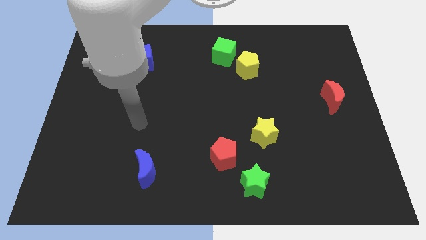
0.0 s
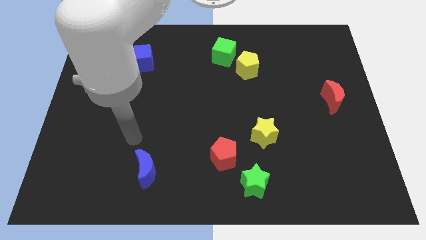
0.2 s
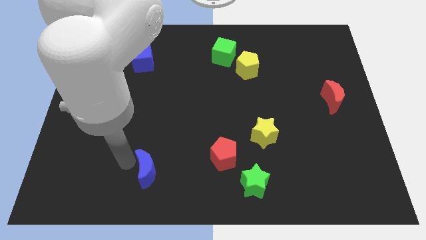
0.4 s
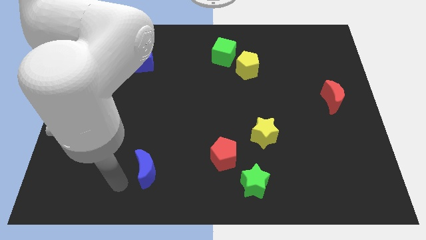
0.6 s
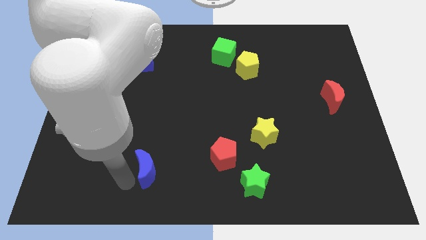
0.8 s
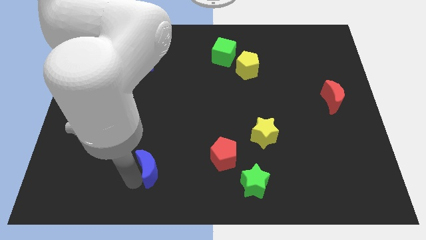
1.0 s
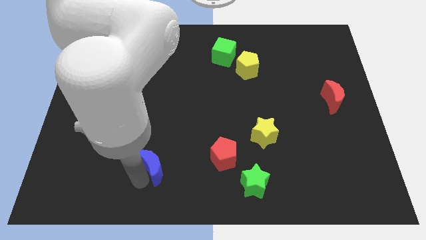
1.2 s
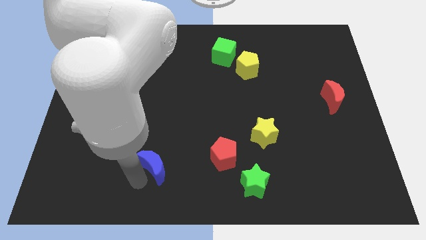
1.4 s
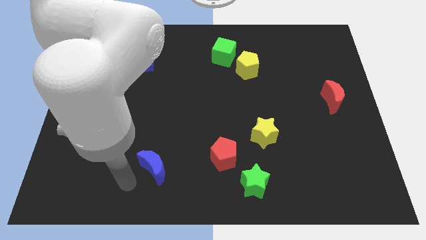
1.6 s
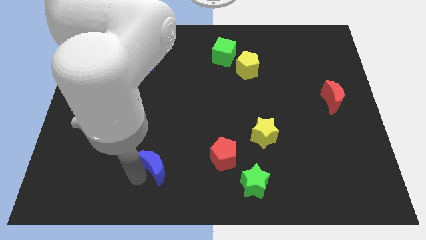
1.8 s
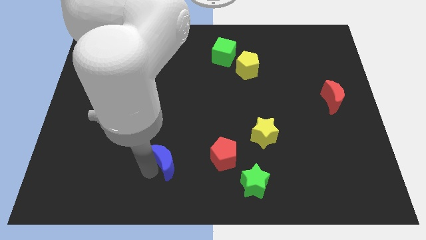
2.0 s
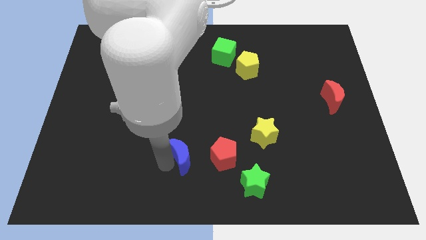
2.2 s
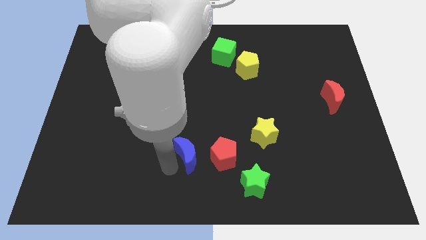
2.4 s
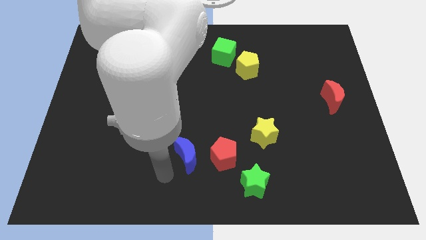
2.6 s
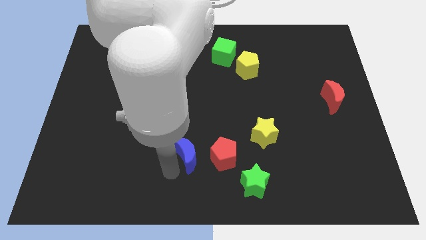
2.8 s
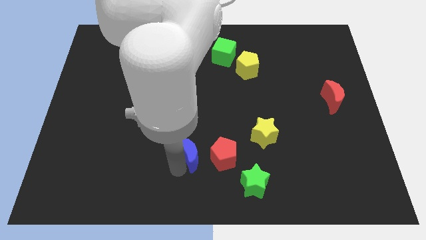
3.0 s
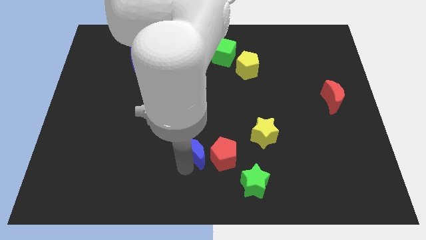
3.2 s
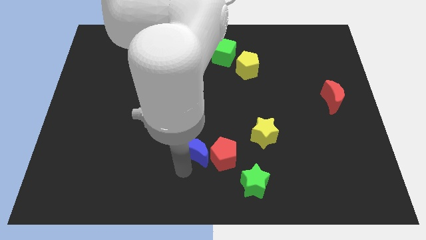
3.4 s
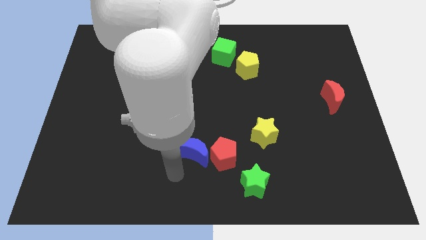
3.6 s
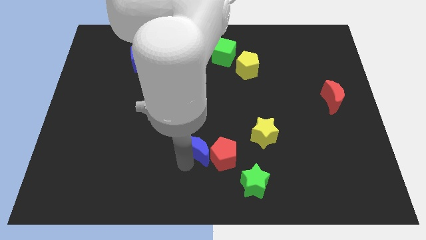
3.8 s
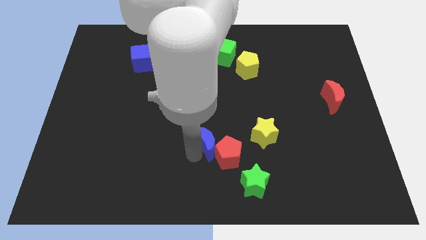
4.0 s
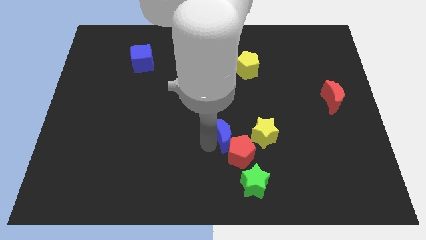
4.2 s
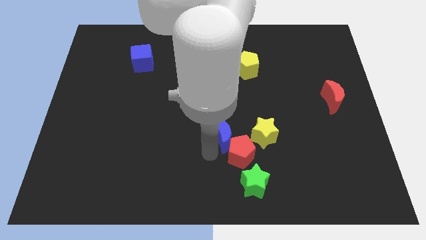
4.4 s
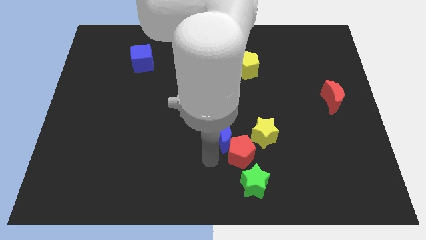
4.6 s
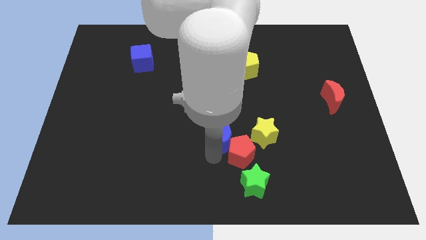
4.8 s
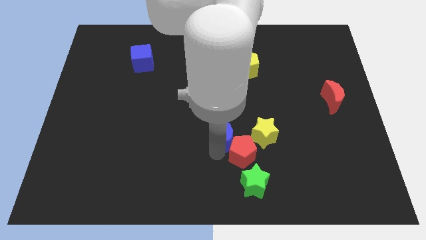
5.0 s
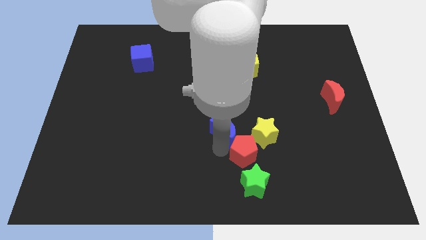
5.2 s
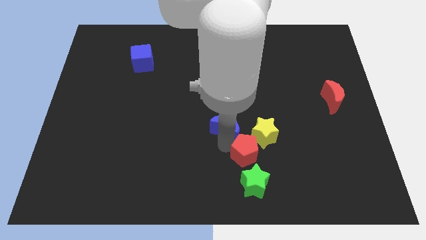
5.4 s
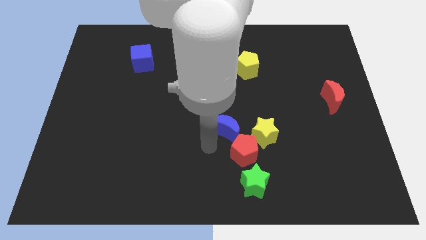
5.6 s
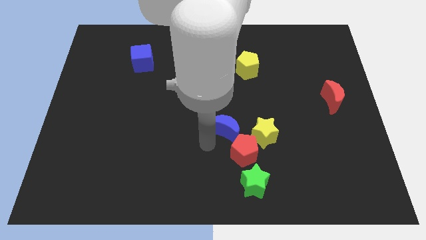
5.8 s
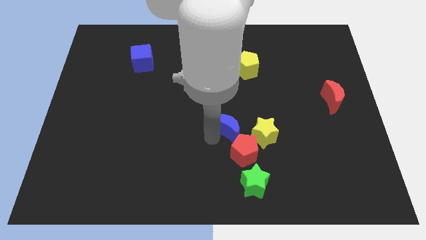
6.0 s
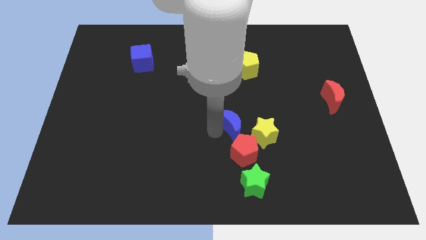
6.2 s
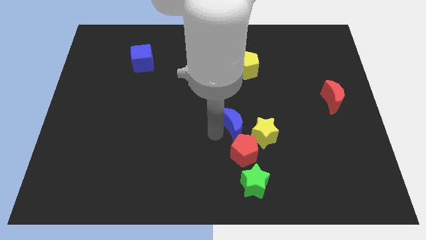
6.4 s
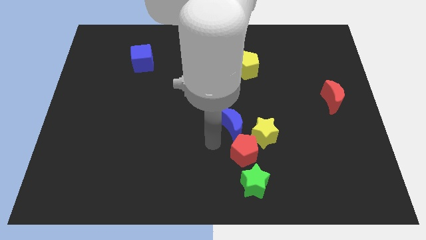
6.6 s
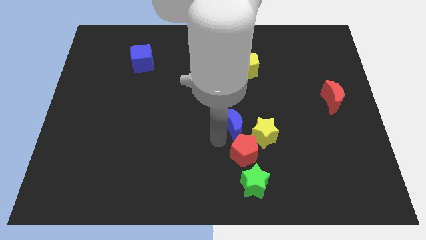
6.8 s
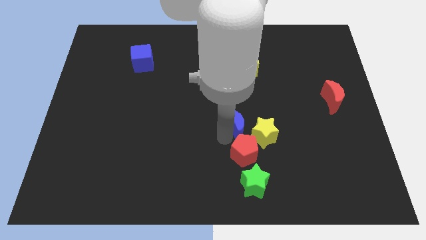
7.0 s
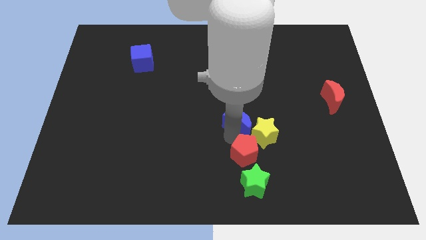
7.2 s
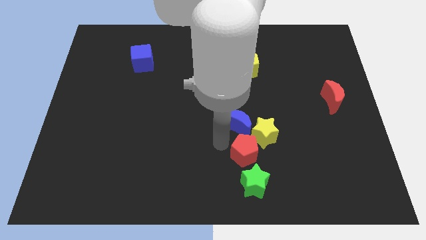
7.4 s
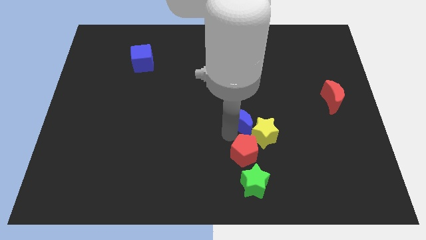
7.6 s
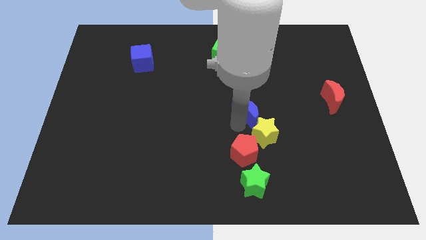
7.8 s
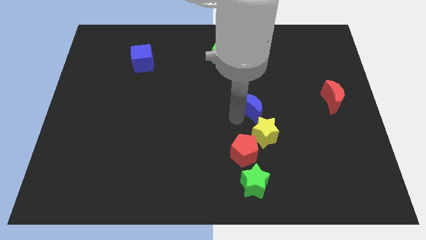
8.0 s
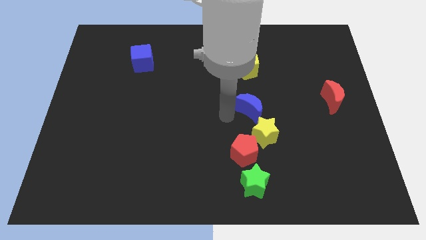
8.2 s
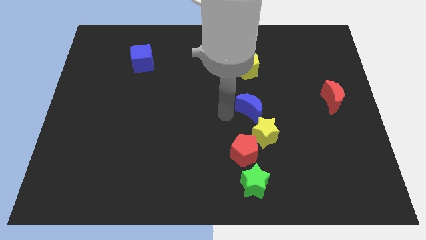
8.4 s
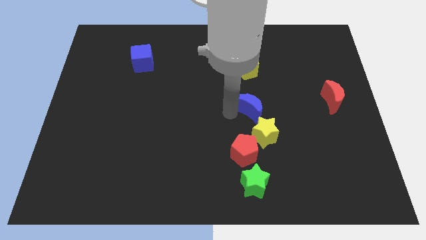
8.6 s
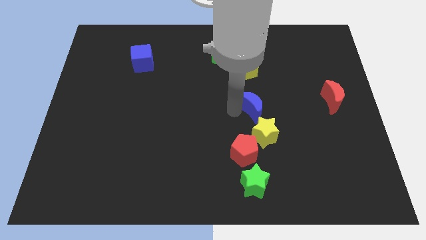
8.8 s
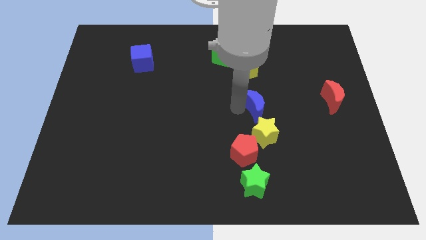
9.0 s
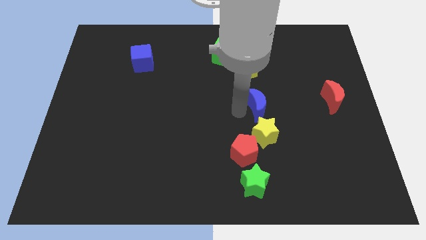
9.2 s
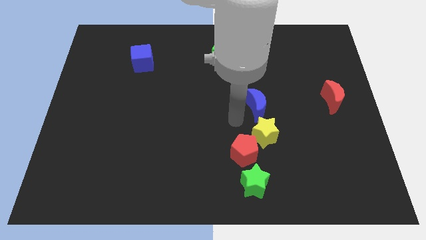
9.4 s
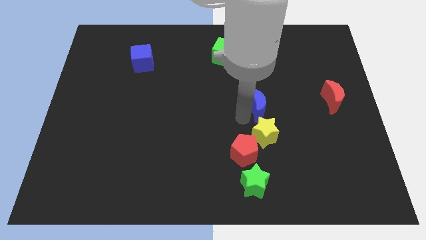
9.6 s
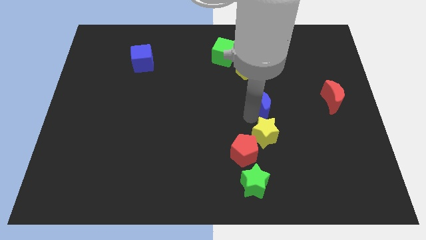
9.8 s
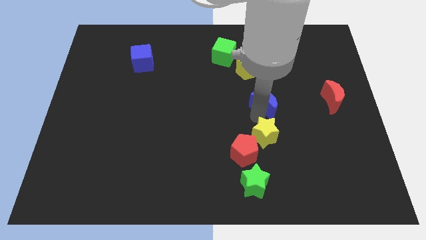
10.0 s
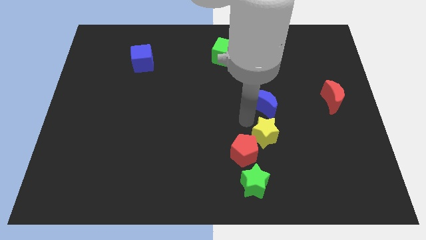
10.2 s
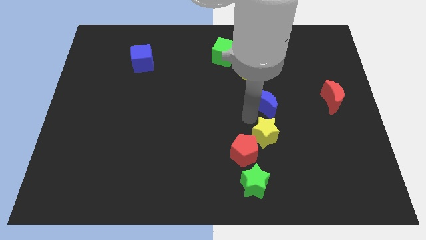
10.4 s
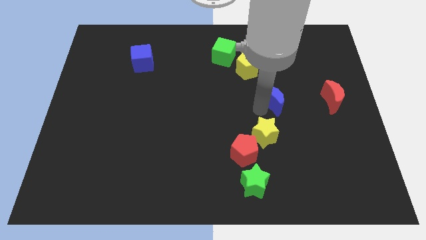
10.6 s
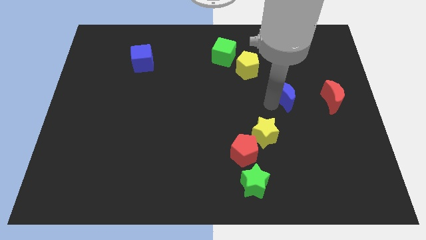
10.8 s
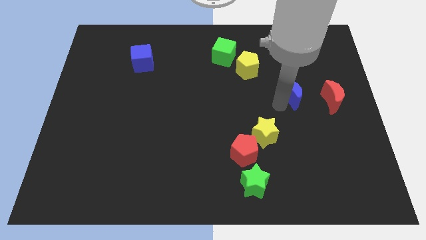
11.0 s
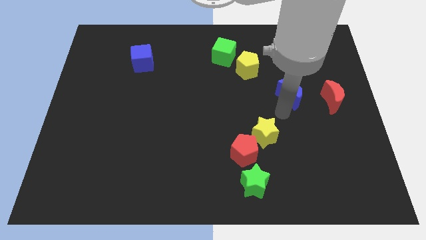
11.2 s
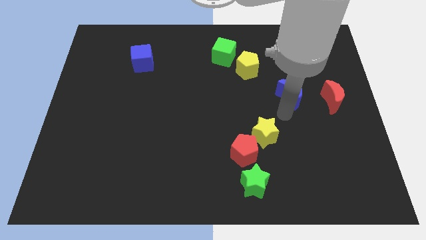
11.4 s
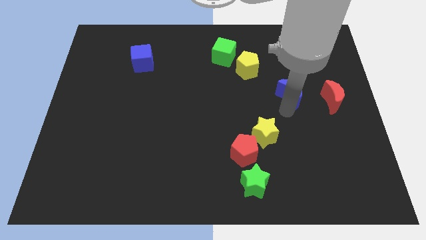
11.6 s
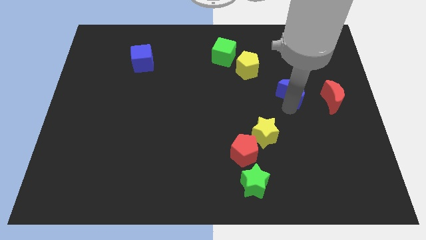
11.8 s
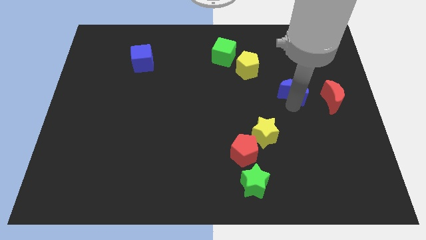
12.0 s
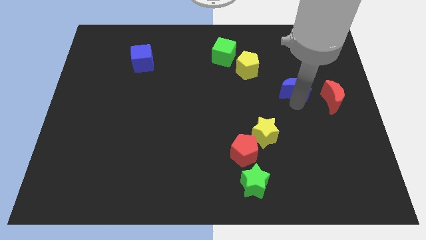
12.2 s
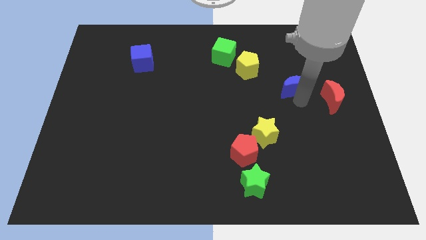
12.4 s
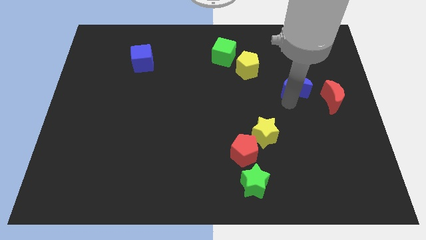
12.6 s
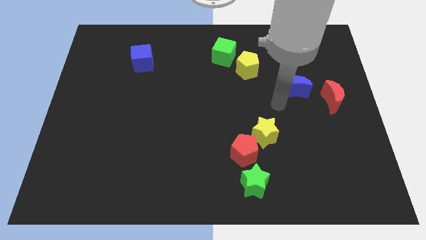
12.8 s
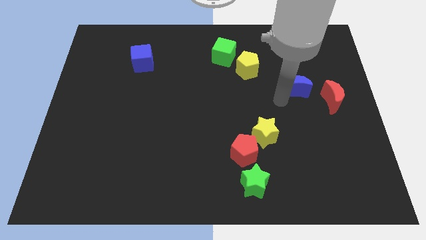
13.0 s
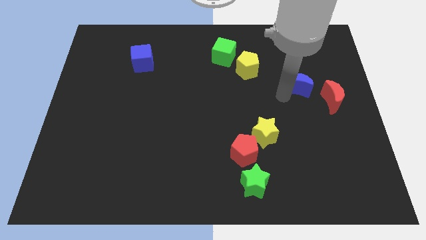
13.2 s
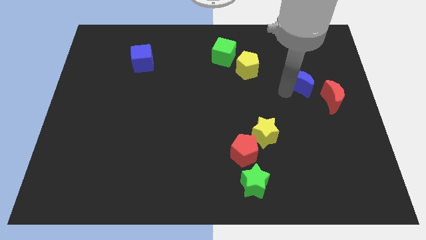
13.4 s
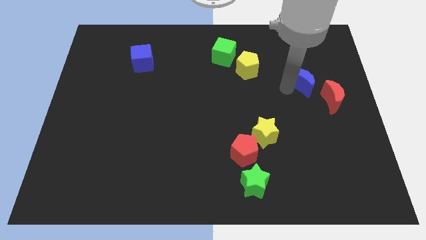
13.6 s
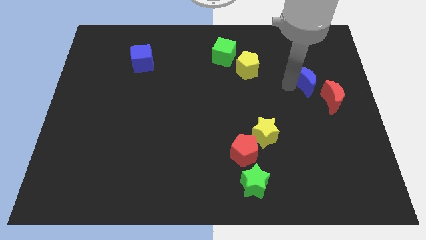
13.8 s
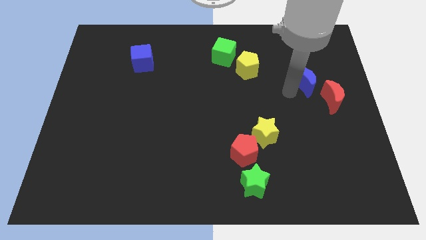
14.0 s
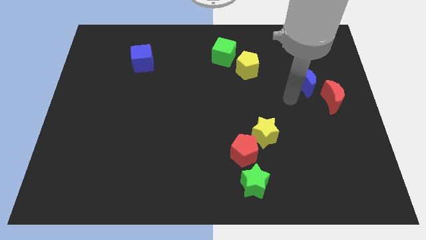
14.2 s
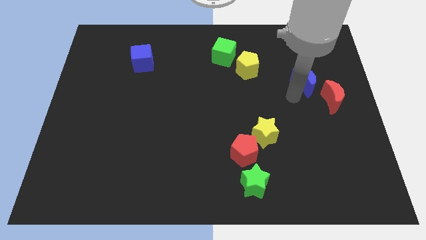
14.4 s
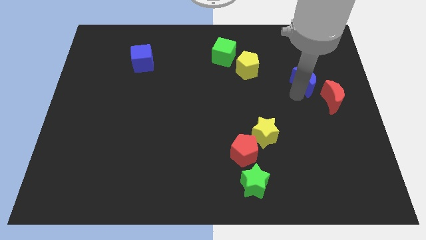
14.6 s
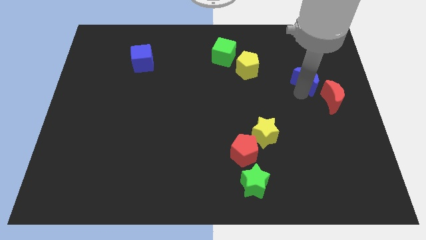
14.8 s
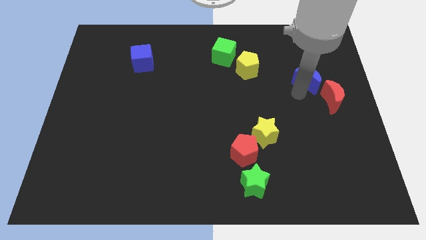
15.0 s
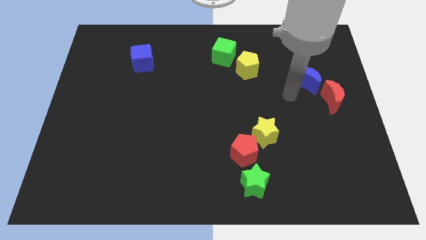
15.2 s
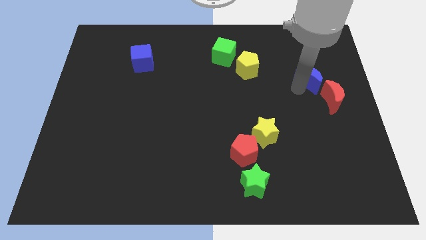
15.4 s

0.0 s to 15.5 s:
slide the blue moon above the red moon
